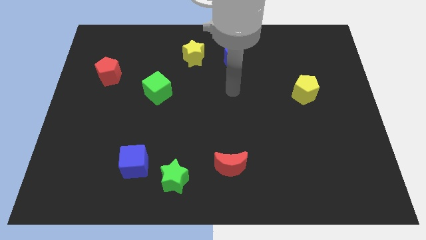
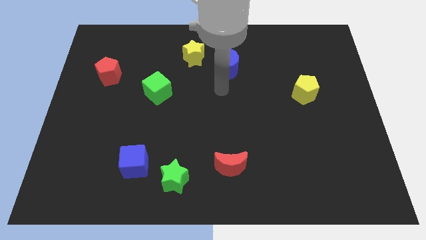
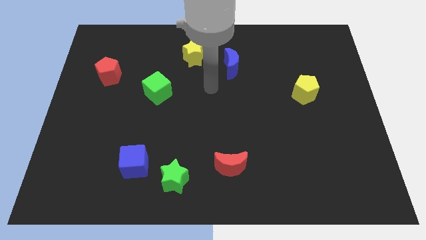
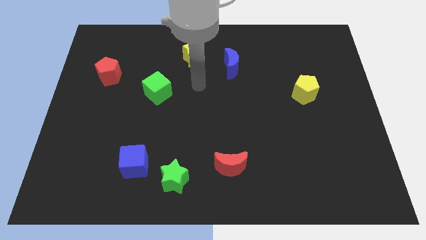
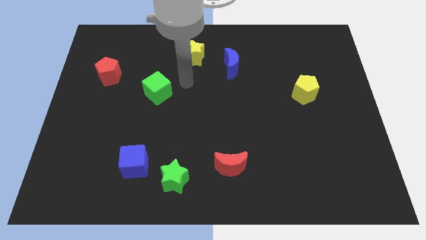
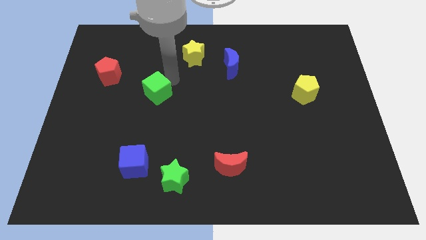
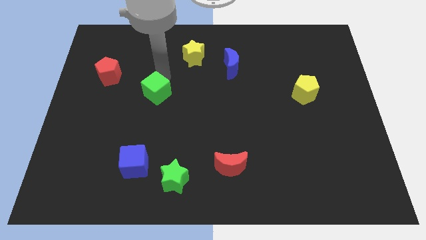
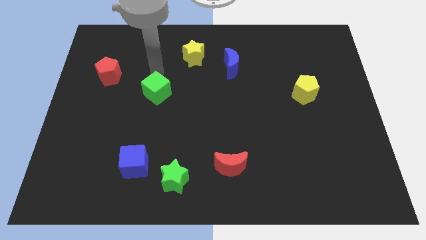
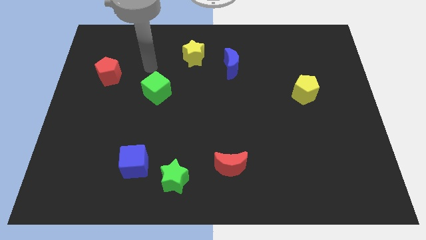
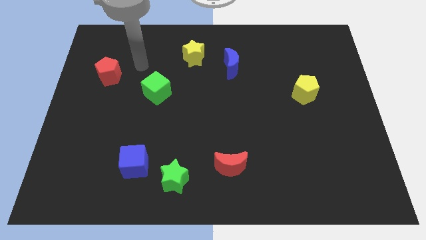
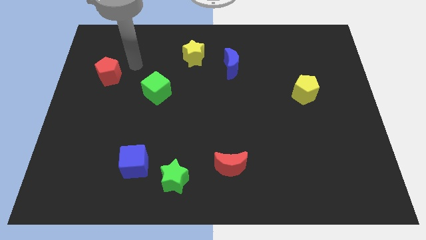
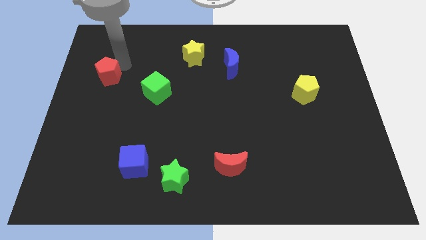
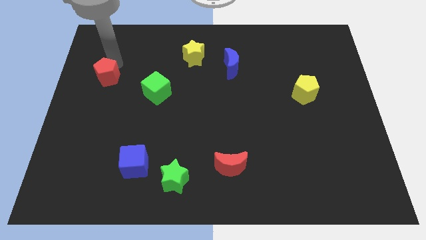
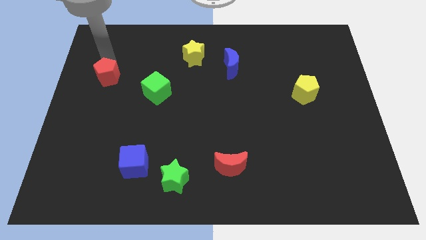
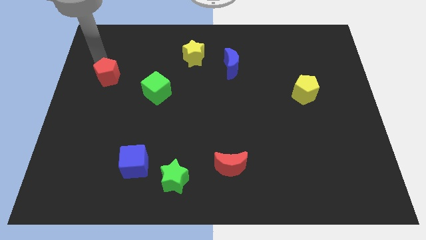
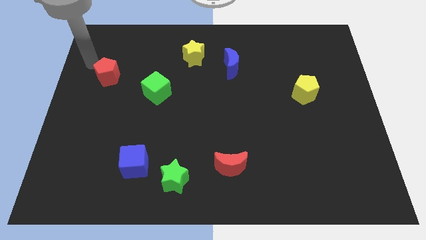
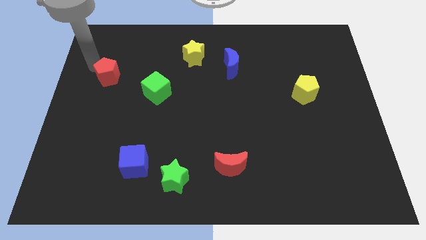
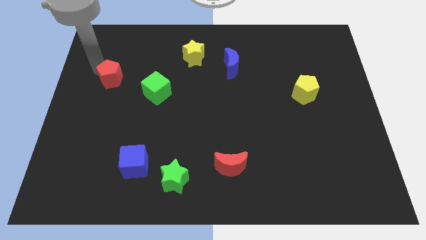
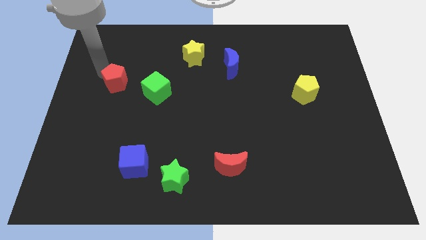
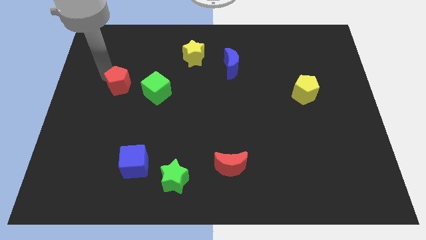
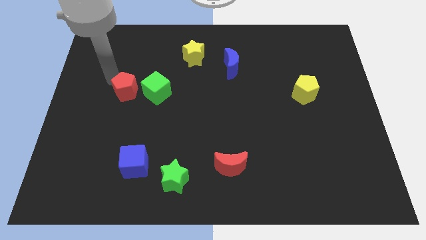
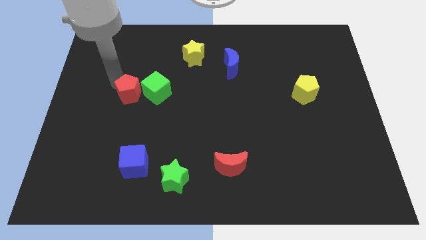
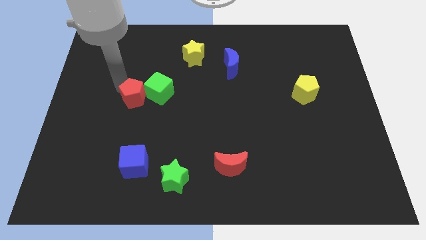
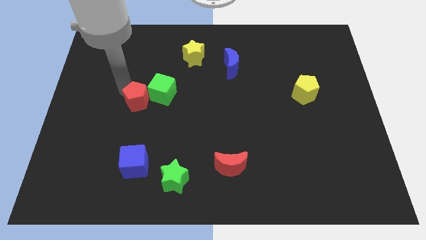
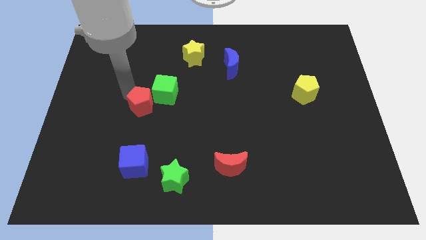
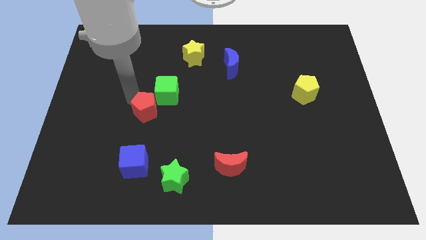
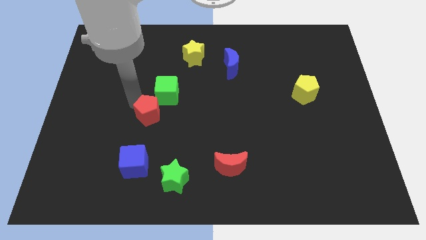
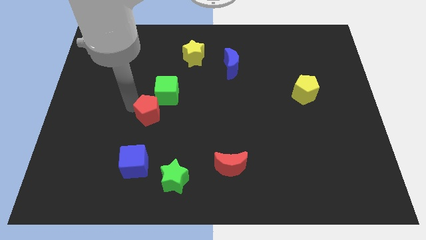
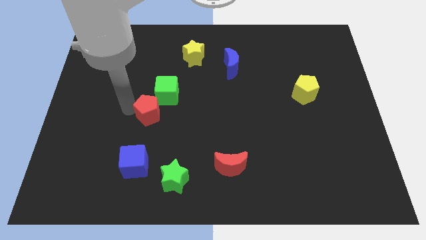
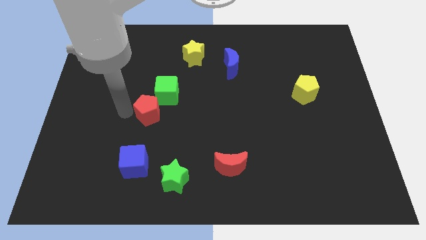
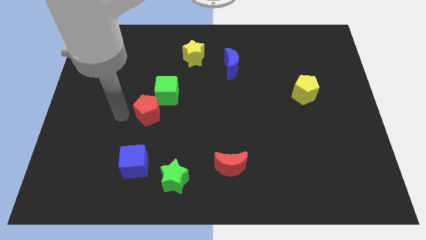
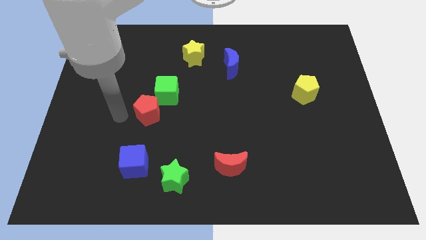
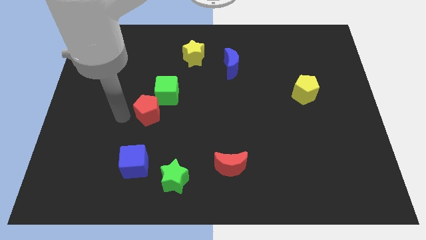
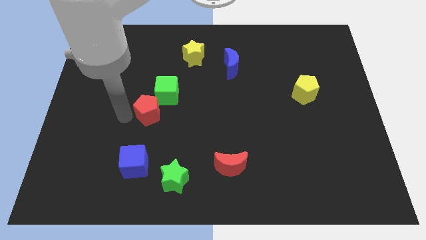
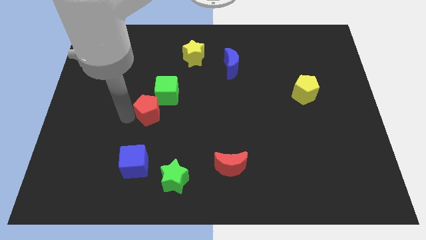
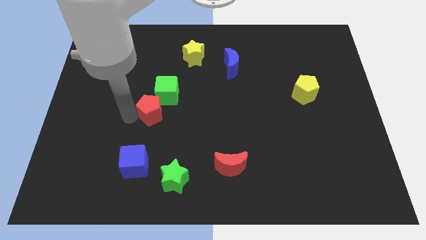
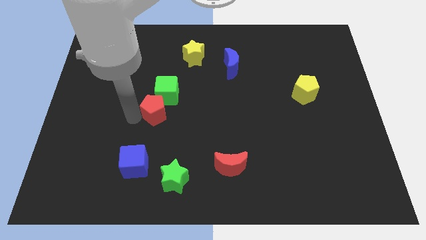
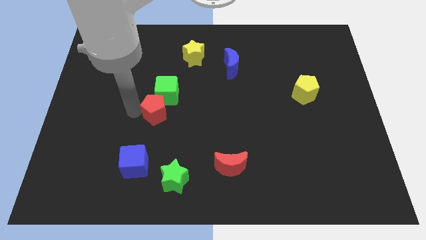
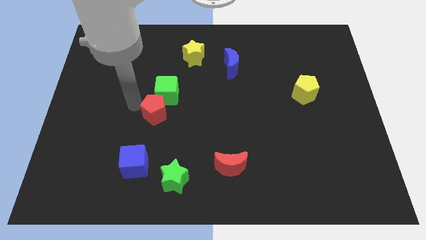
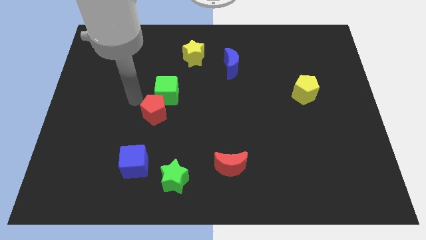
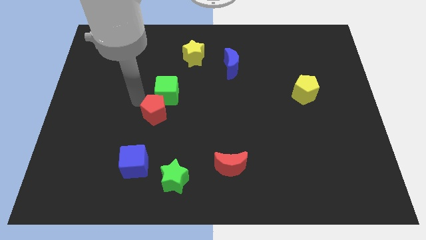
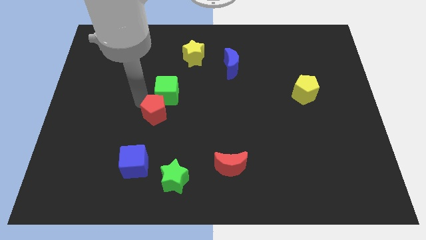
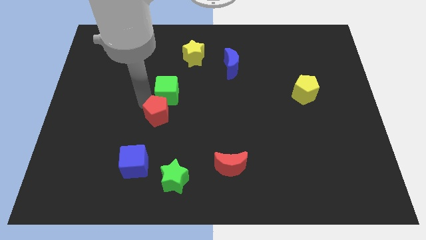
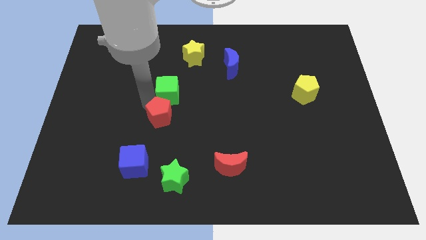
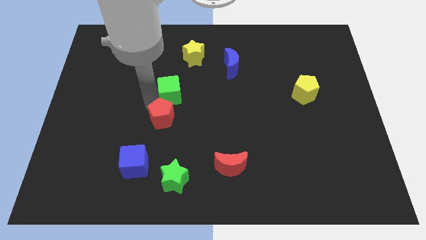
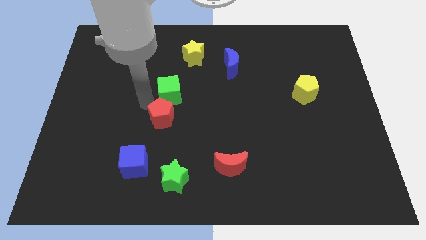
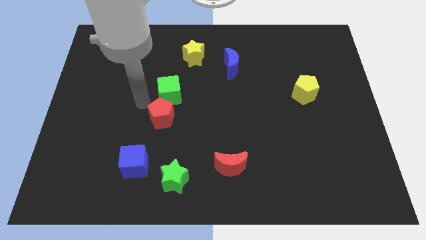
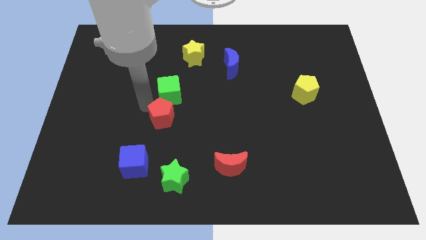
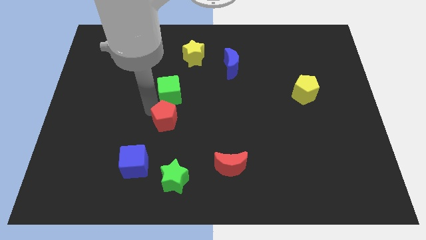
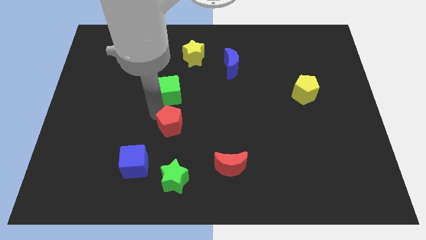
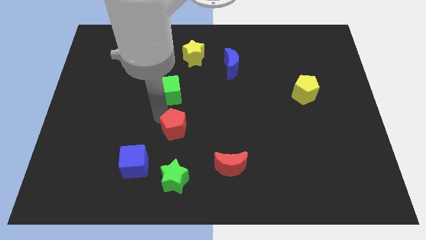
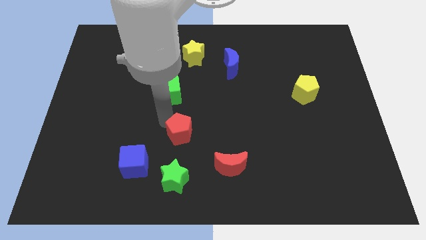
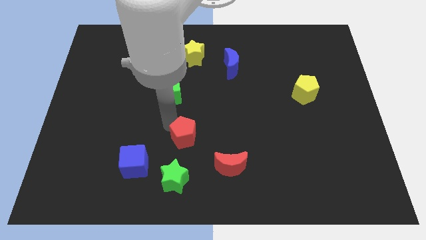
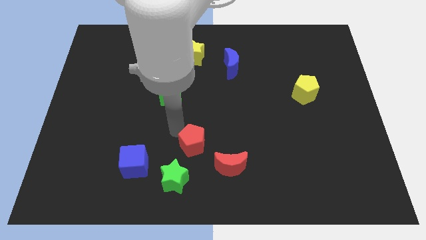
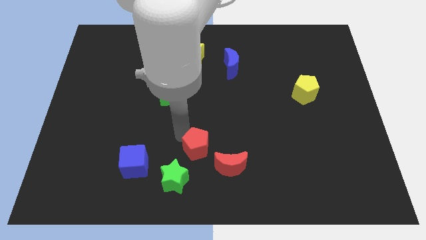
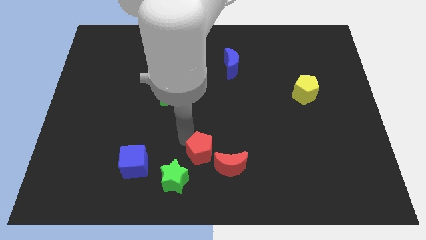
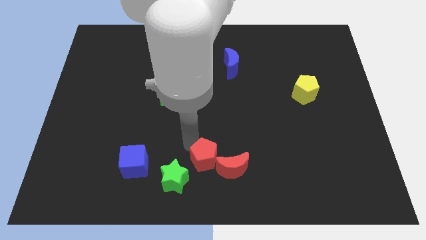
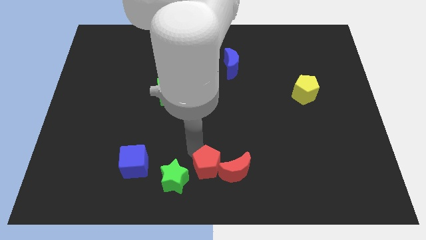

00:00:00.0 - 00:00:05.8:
move the red pentagon towards the red moon

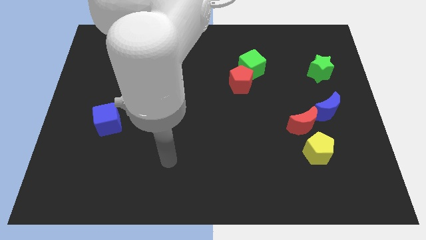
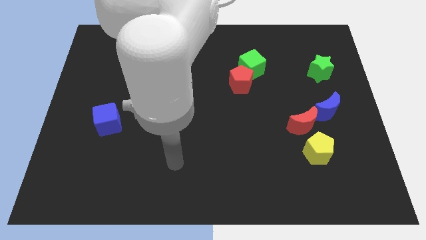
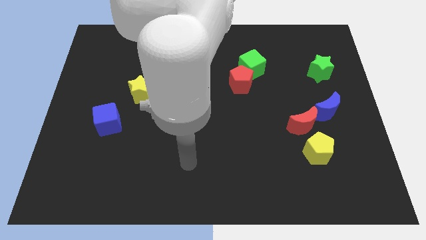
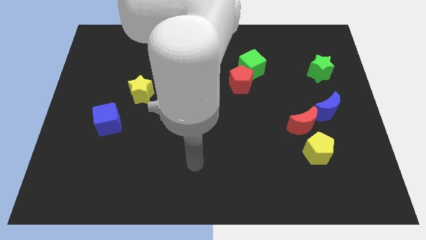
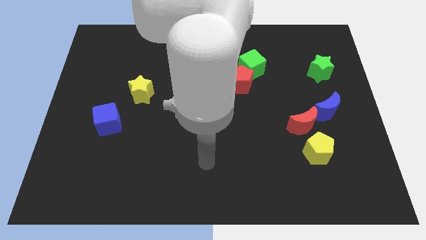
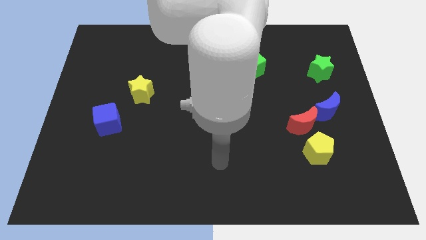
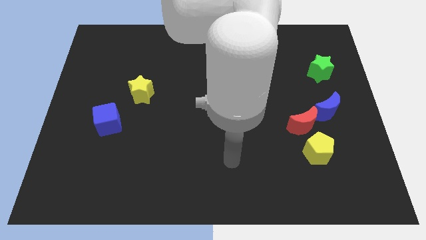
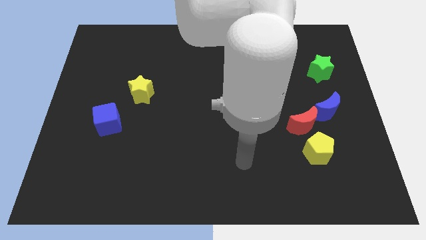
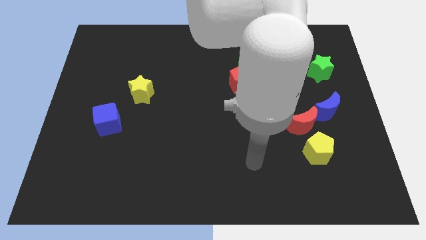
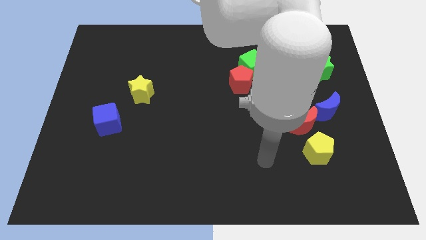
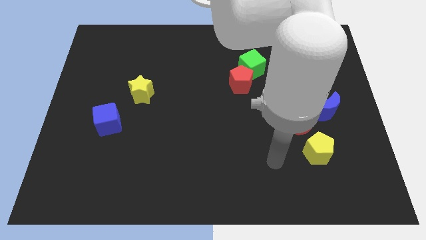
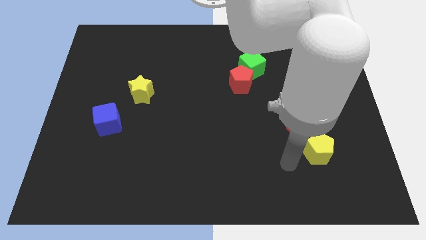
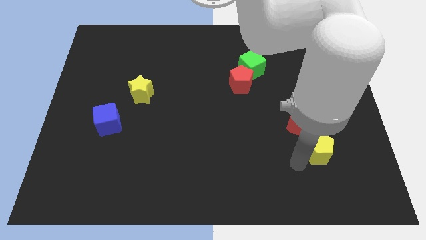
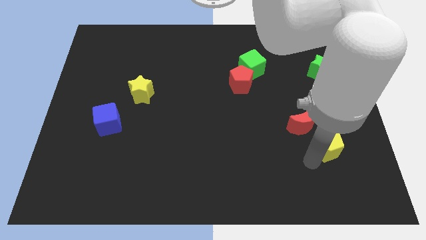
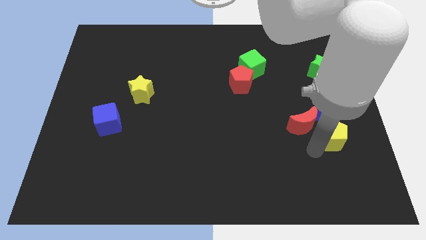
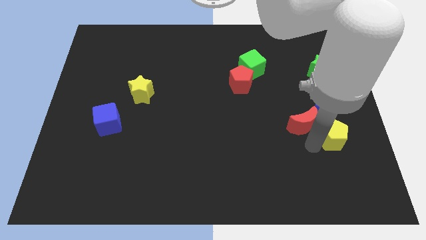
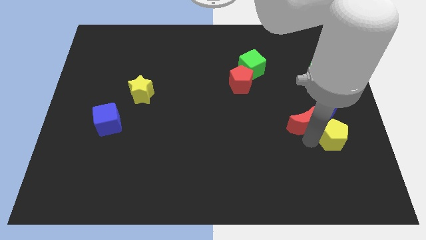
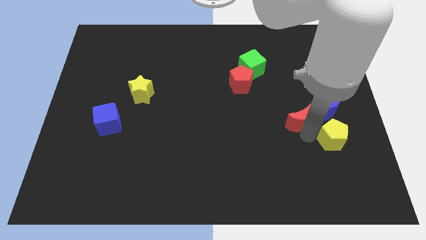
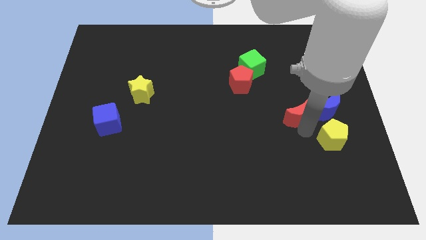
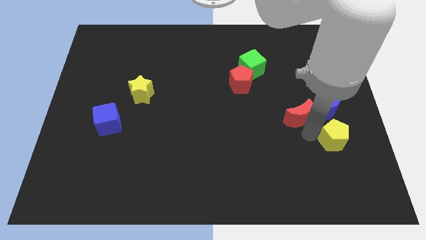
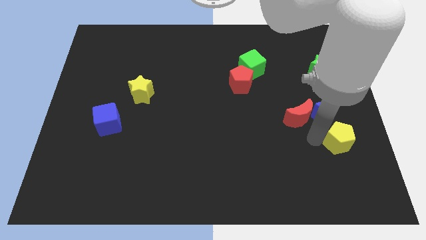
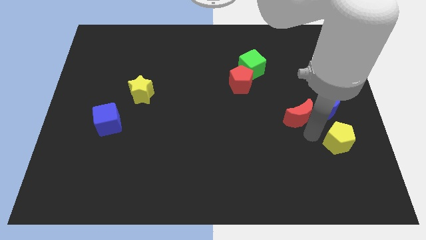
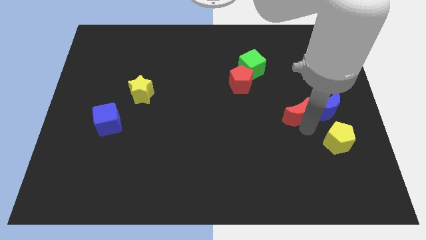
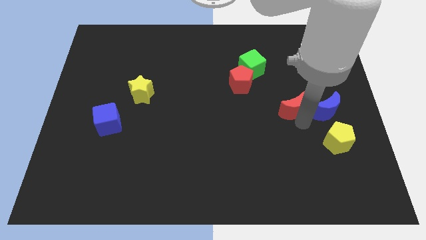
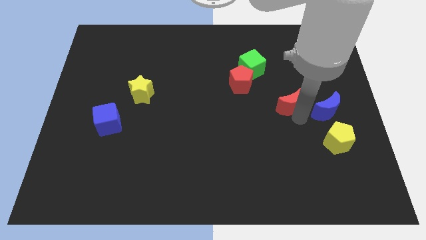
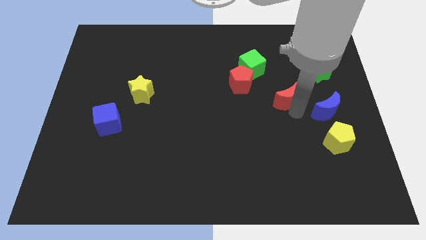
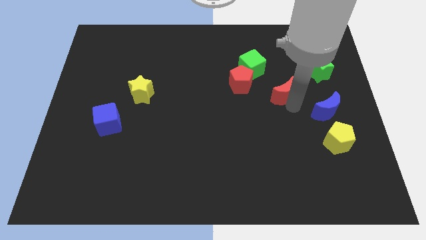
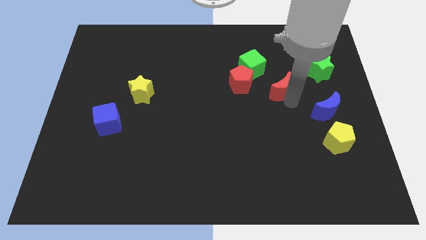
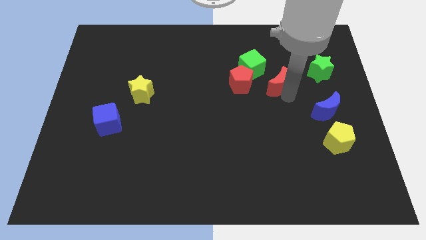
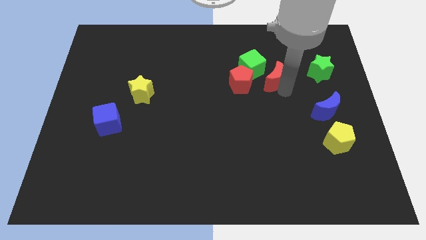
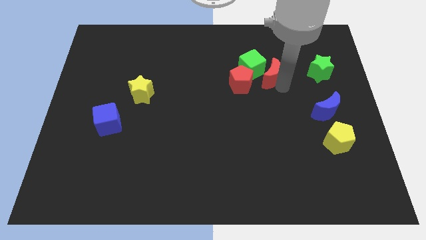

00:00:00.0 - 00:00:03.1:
push the red moon close to the green cube
